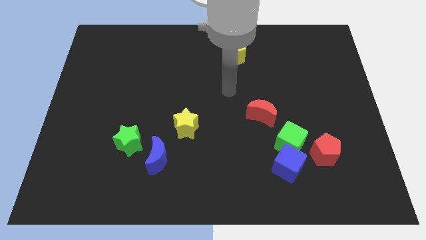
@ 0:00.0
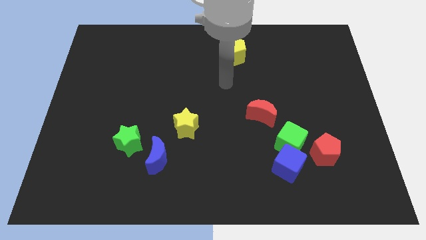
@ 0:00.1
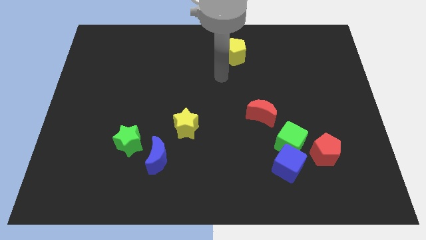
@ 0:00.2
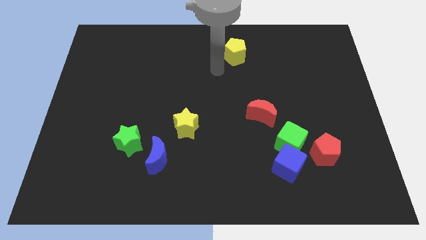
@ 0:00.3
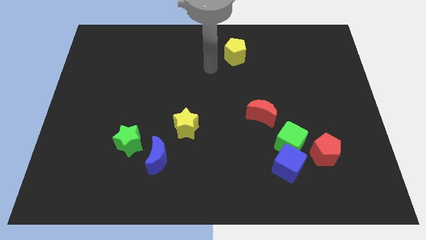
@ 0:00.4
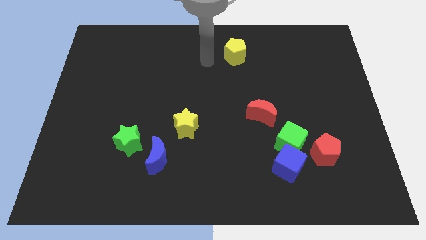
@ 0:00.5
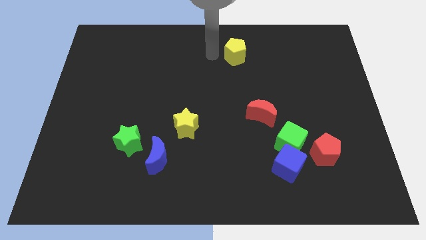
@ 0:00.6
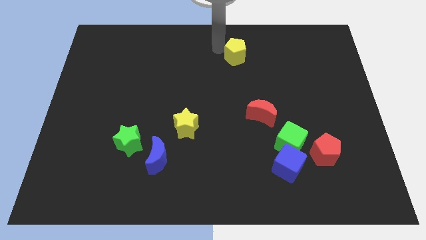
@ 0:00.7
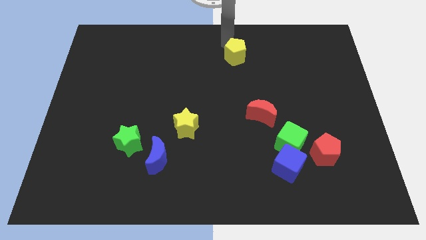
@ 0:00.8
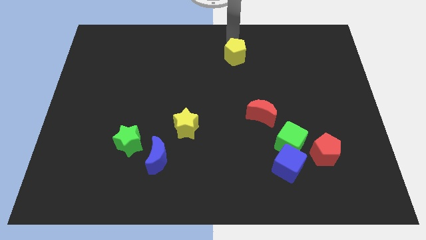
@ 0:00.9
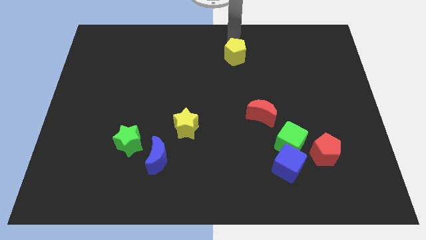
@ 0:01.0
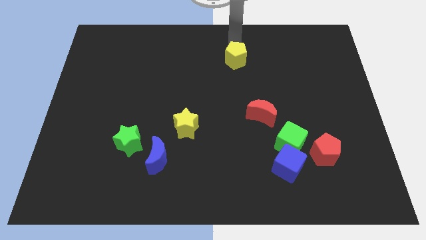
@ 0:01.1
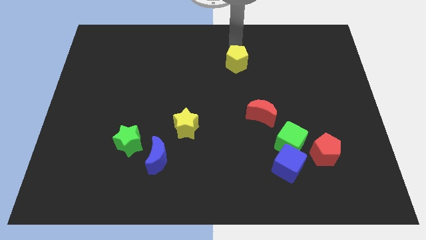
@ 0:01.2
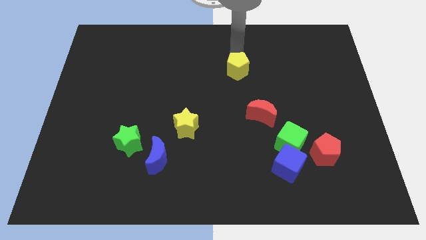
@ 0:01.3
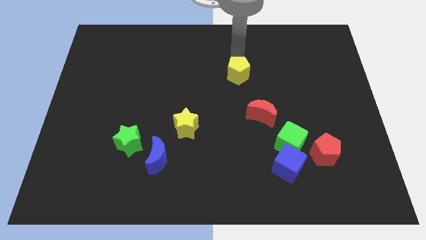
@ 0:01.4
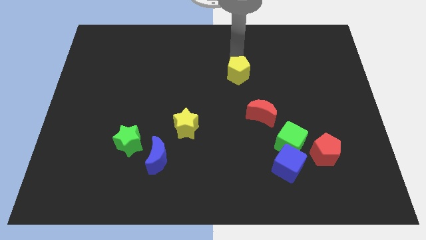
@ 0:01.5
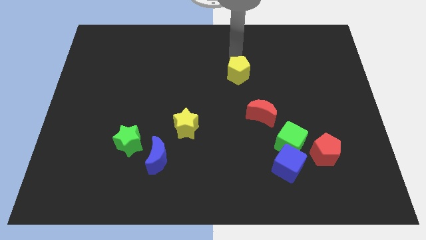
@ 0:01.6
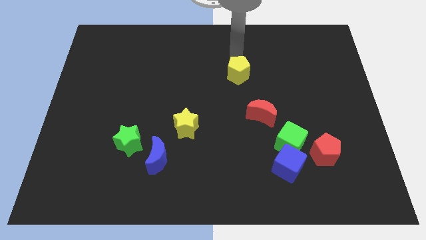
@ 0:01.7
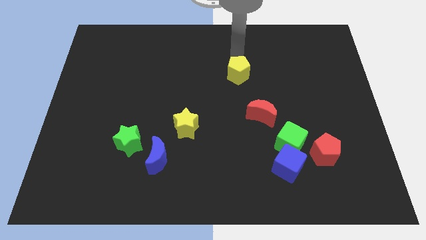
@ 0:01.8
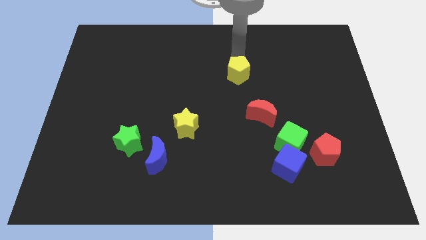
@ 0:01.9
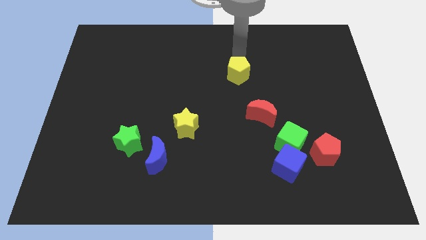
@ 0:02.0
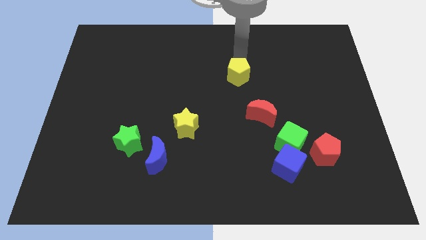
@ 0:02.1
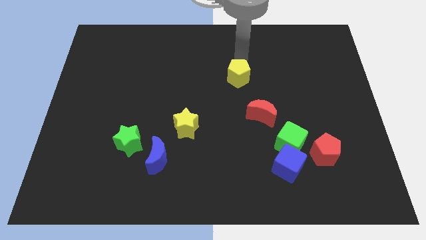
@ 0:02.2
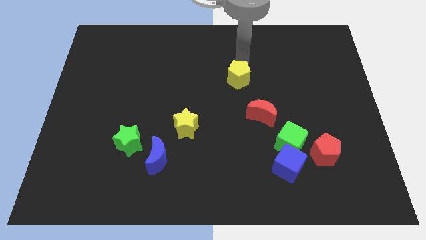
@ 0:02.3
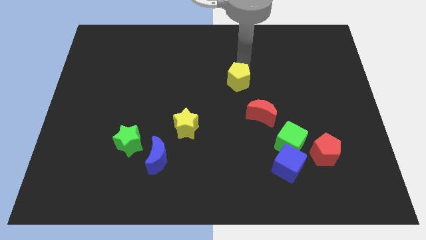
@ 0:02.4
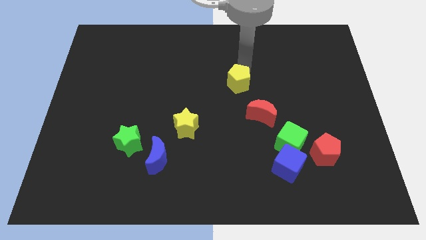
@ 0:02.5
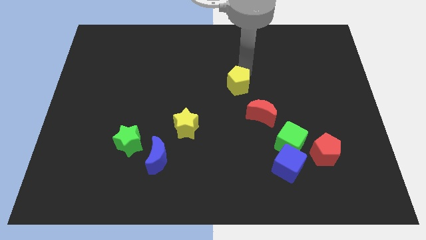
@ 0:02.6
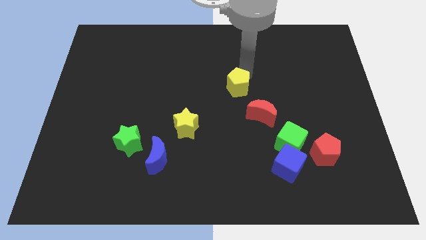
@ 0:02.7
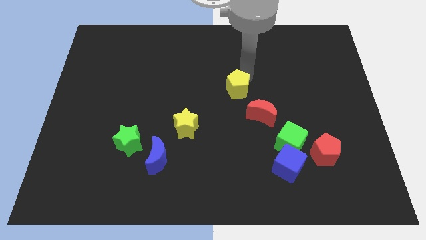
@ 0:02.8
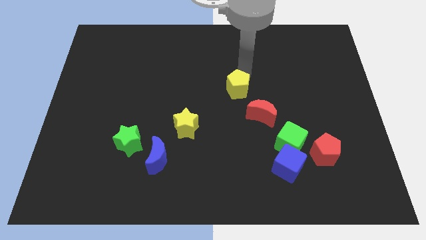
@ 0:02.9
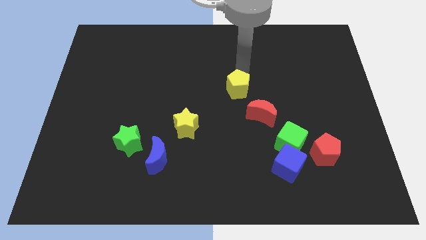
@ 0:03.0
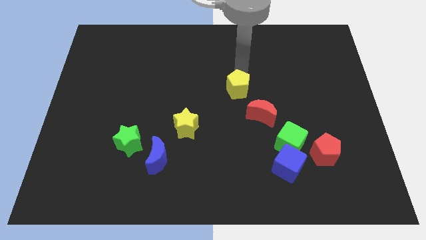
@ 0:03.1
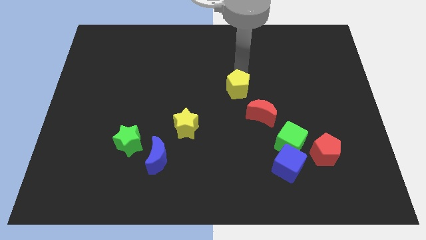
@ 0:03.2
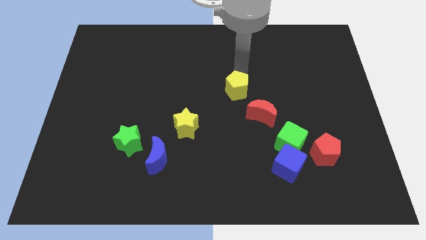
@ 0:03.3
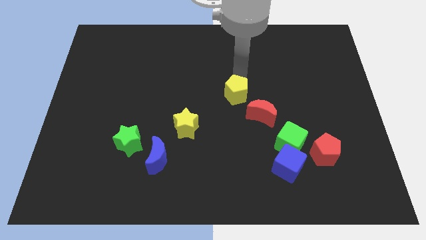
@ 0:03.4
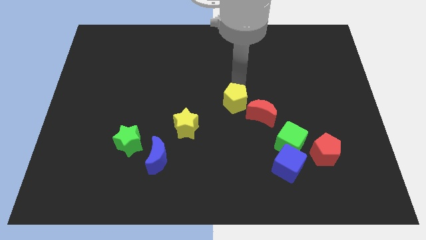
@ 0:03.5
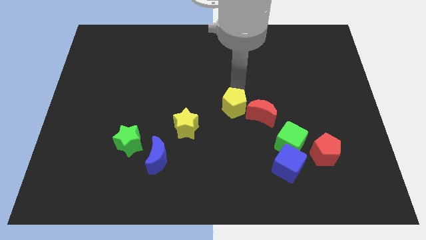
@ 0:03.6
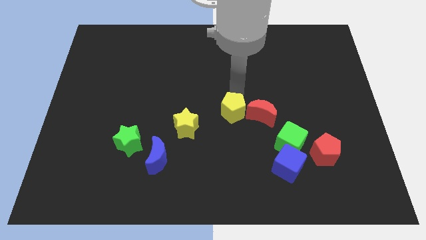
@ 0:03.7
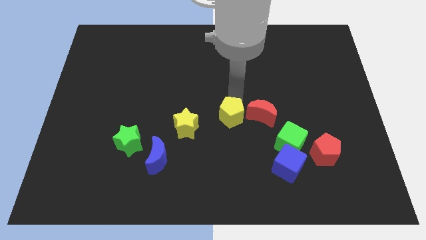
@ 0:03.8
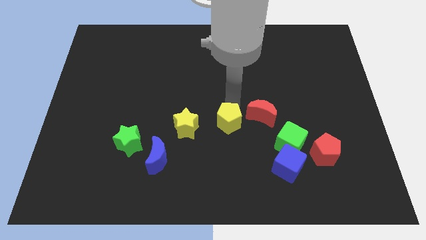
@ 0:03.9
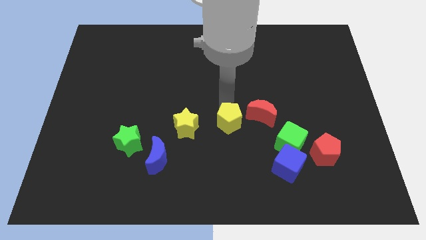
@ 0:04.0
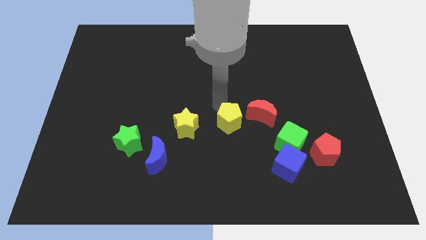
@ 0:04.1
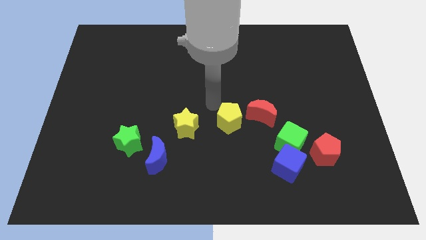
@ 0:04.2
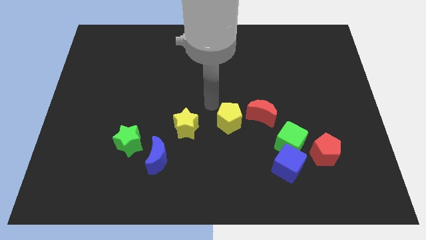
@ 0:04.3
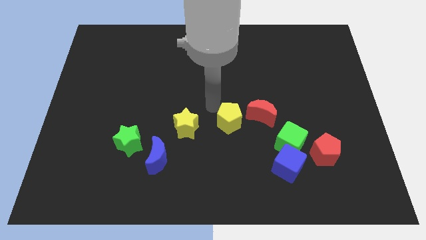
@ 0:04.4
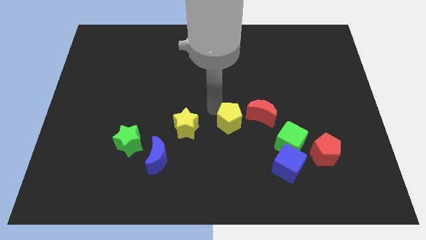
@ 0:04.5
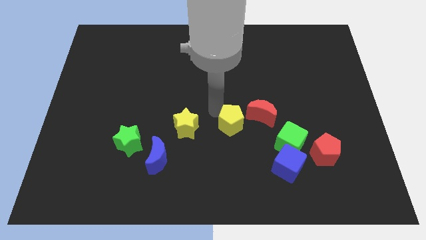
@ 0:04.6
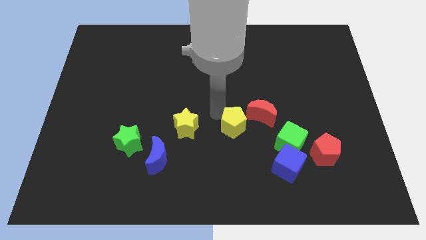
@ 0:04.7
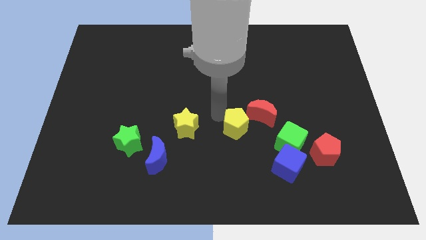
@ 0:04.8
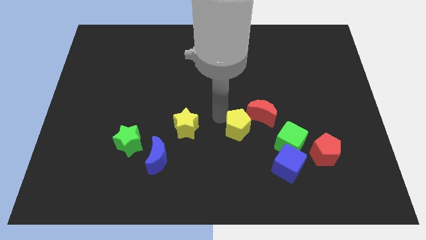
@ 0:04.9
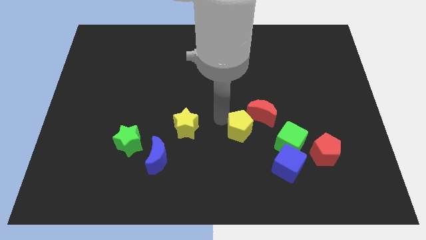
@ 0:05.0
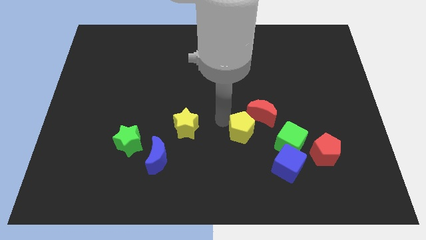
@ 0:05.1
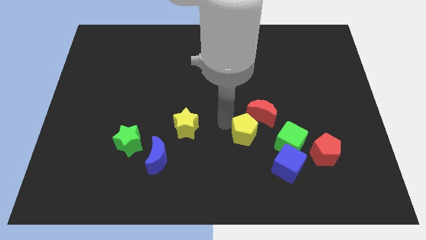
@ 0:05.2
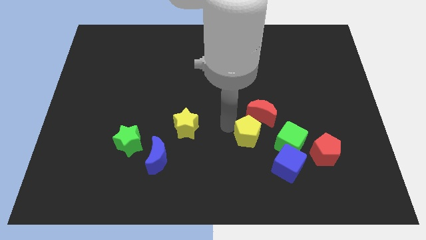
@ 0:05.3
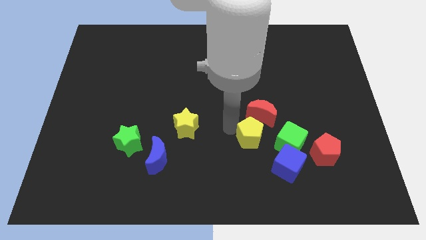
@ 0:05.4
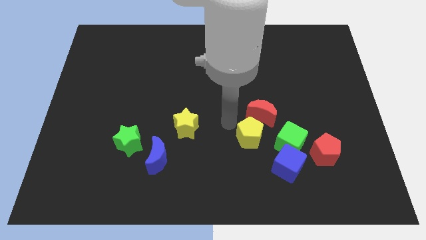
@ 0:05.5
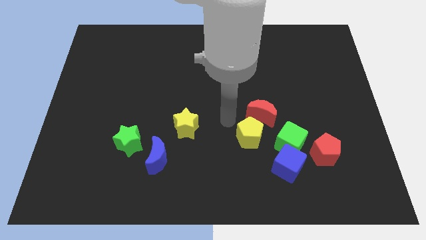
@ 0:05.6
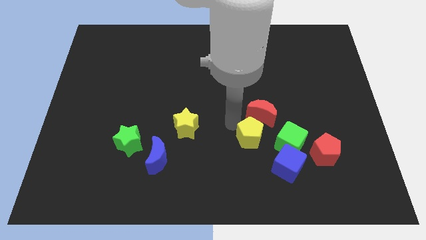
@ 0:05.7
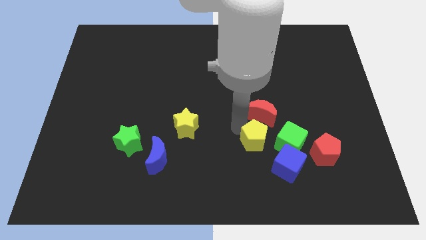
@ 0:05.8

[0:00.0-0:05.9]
push the yellow pentagon left of the red pentagon

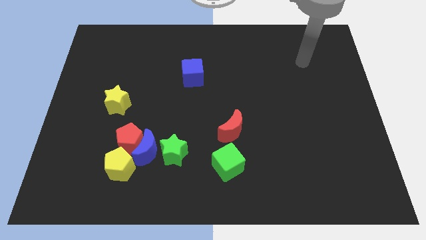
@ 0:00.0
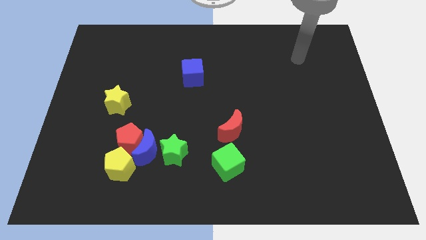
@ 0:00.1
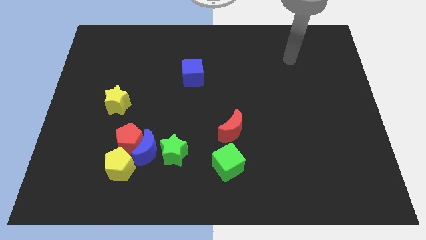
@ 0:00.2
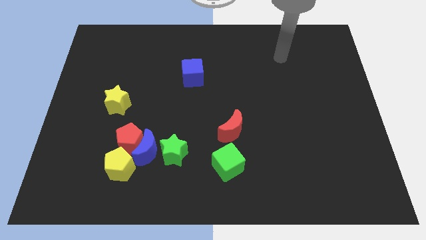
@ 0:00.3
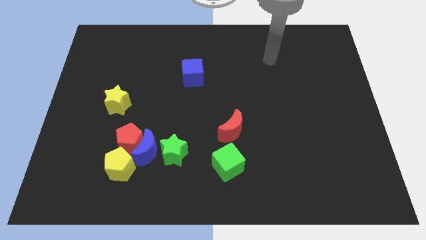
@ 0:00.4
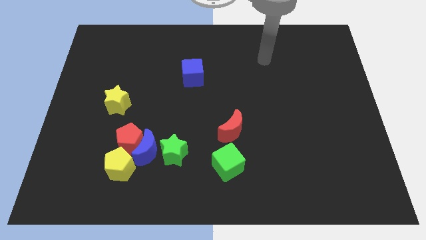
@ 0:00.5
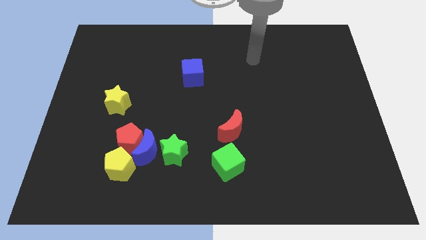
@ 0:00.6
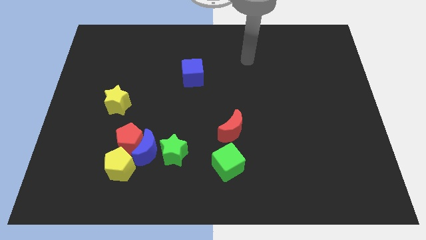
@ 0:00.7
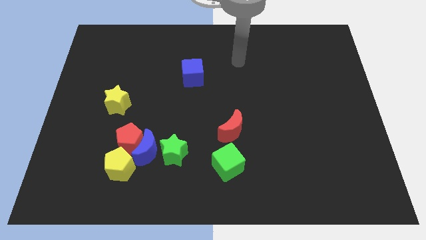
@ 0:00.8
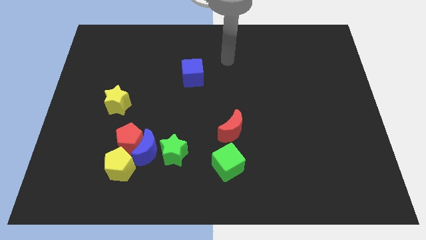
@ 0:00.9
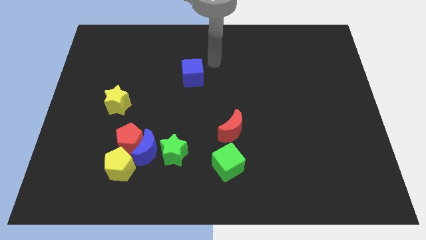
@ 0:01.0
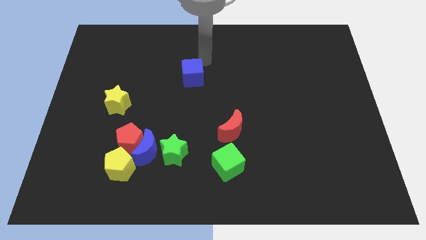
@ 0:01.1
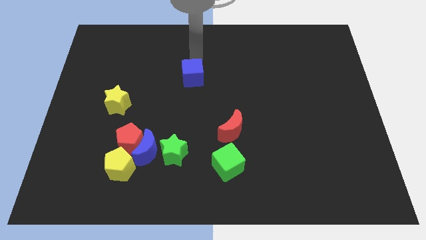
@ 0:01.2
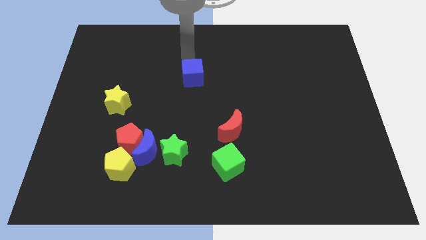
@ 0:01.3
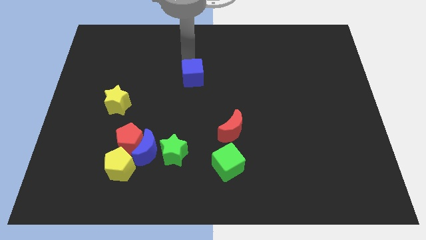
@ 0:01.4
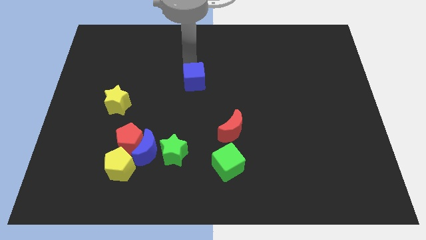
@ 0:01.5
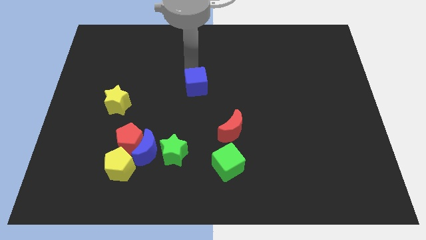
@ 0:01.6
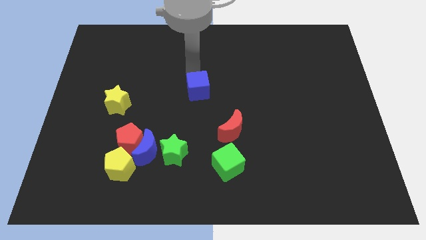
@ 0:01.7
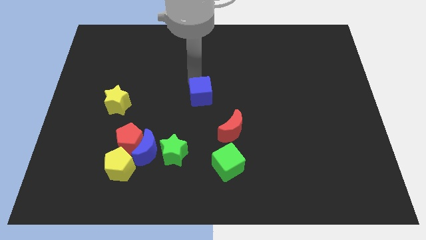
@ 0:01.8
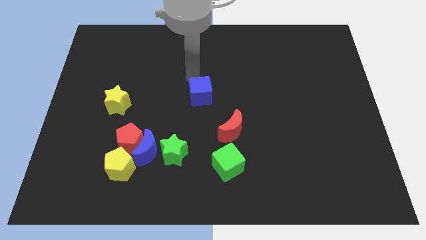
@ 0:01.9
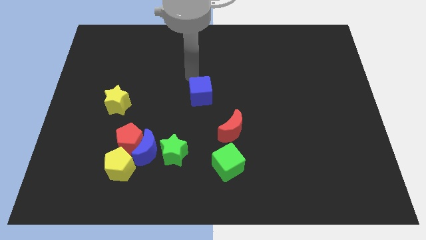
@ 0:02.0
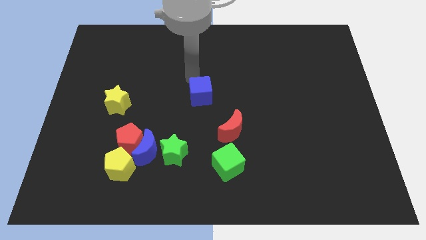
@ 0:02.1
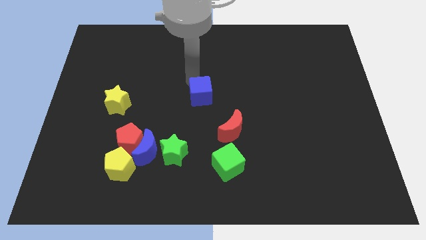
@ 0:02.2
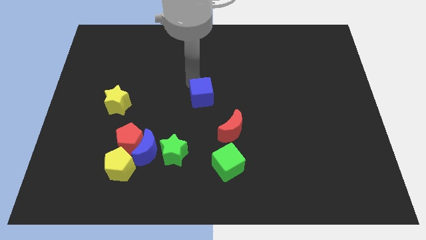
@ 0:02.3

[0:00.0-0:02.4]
put the blue cube to the top left side of the red moon
